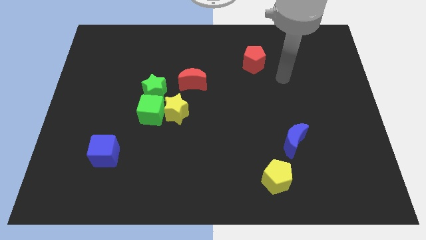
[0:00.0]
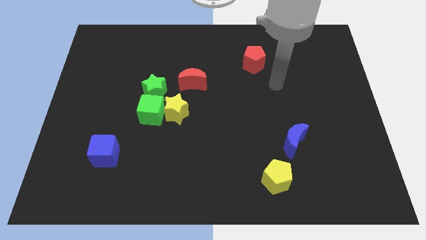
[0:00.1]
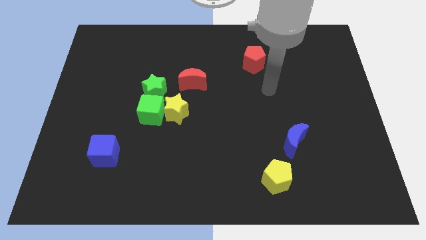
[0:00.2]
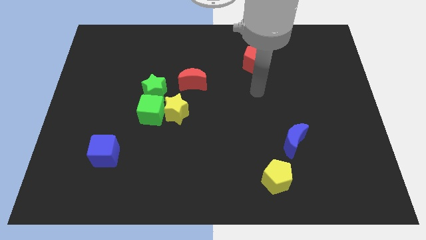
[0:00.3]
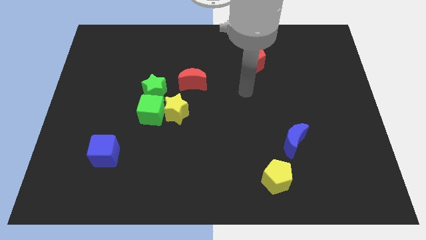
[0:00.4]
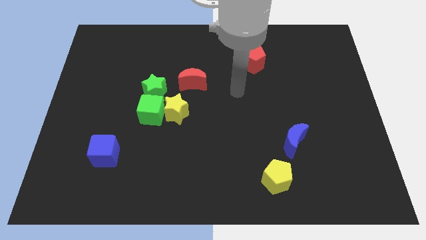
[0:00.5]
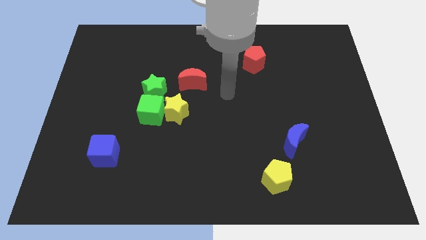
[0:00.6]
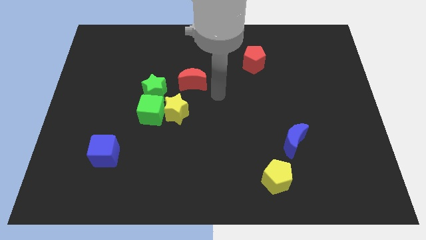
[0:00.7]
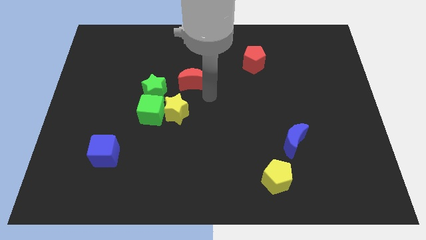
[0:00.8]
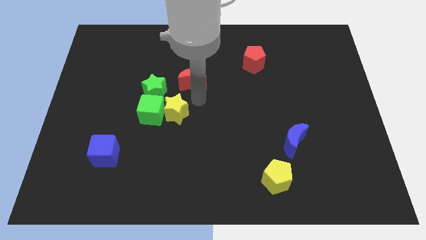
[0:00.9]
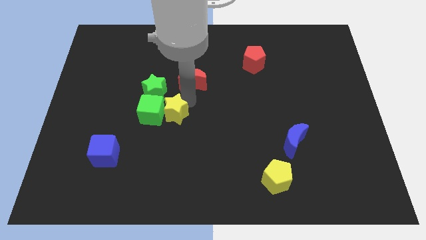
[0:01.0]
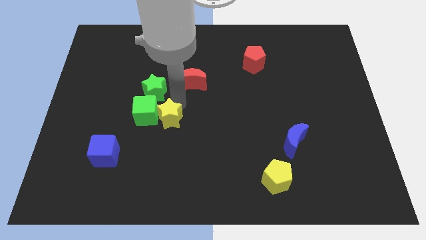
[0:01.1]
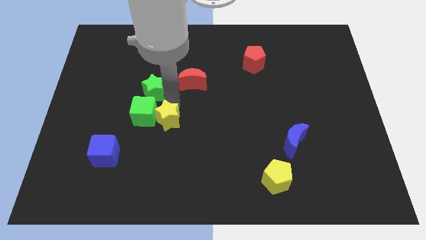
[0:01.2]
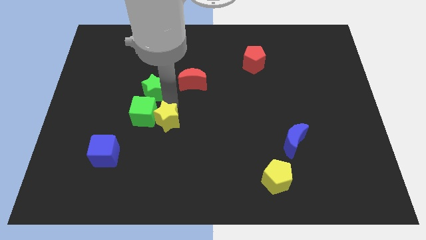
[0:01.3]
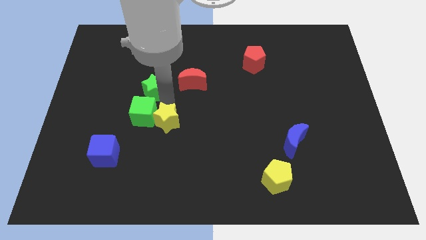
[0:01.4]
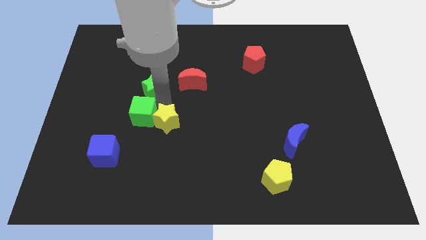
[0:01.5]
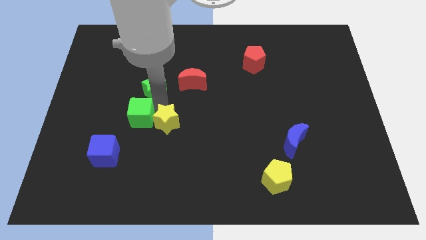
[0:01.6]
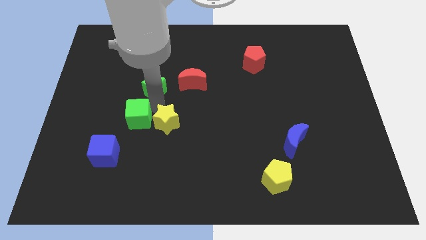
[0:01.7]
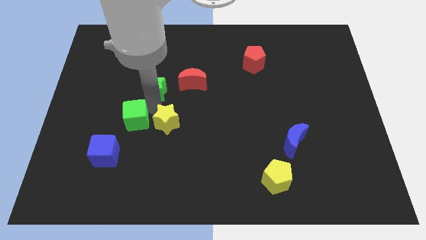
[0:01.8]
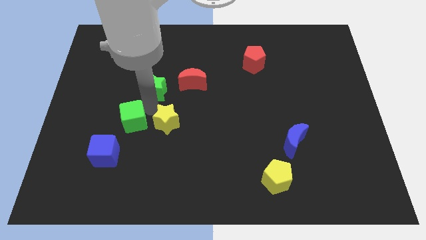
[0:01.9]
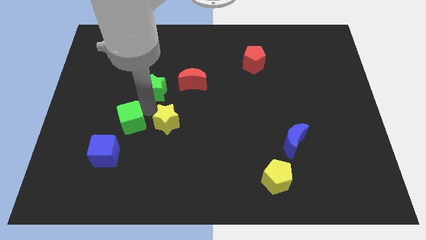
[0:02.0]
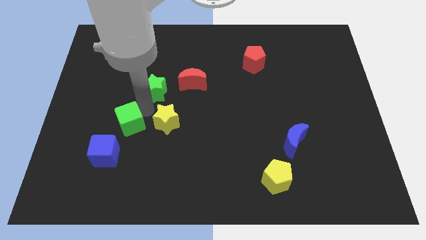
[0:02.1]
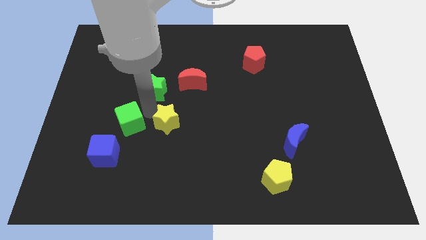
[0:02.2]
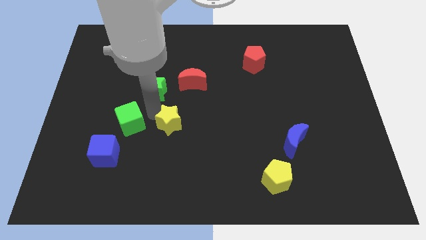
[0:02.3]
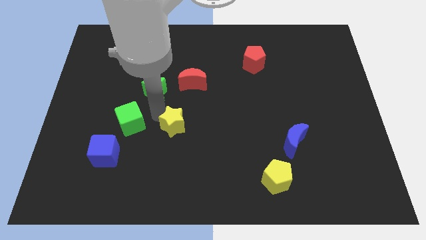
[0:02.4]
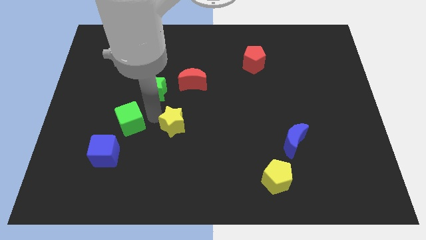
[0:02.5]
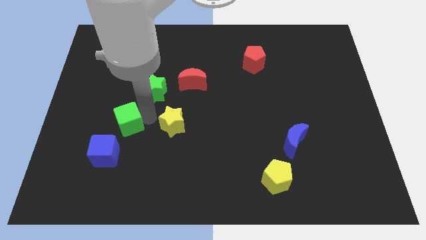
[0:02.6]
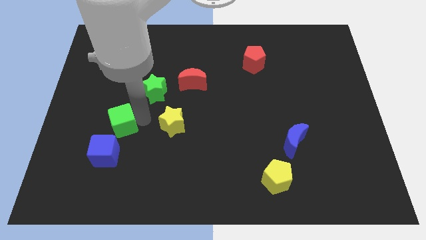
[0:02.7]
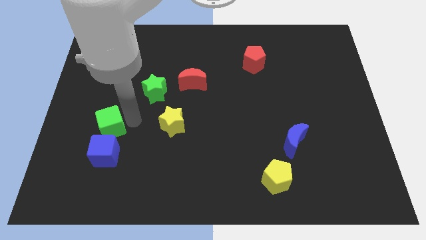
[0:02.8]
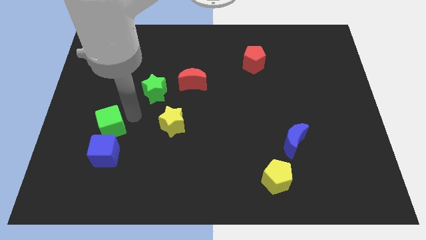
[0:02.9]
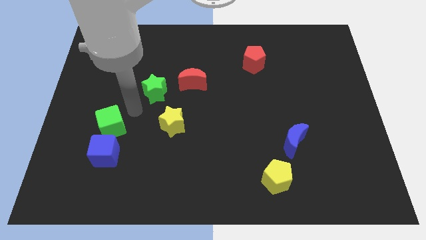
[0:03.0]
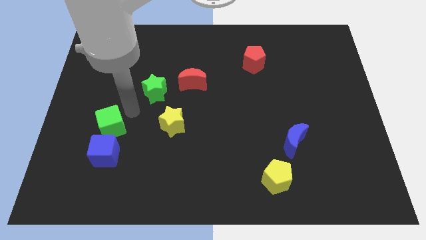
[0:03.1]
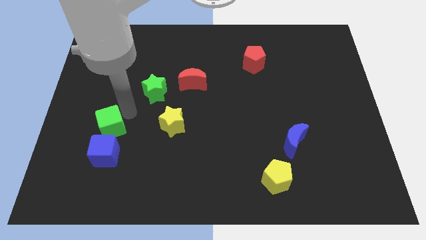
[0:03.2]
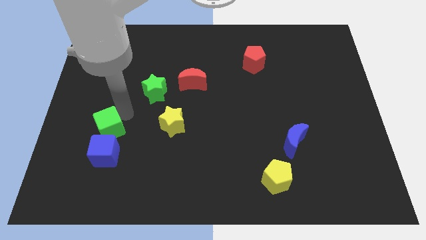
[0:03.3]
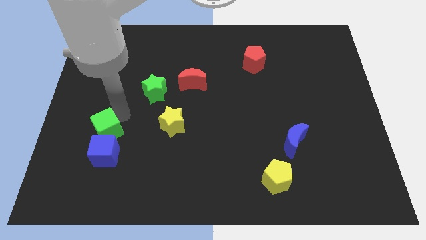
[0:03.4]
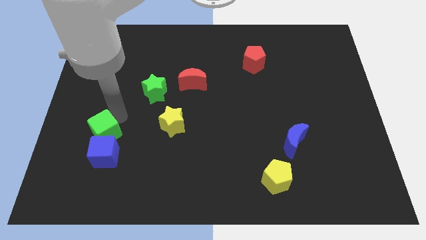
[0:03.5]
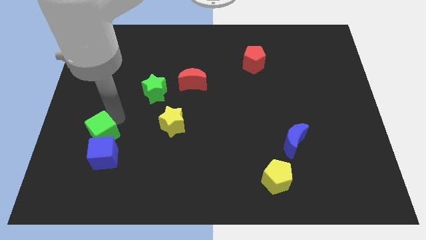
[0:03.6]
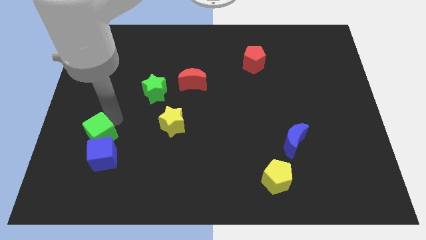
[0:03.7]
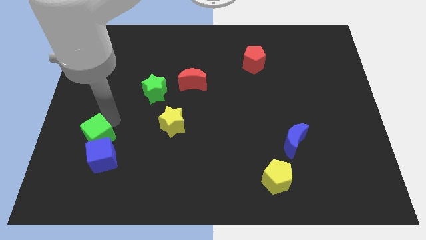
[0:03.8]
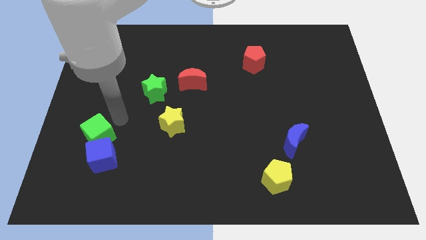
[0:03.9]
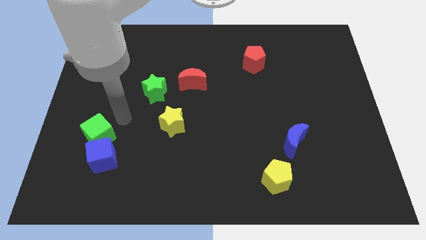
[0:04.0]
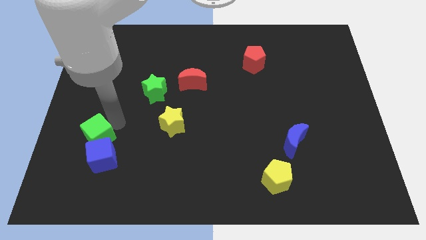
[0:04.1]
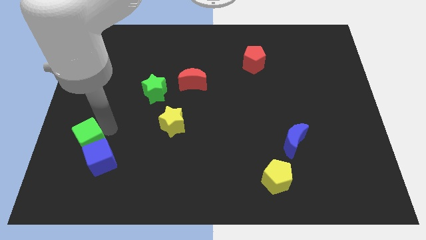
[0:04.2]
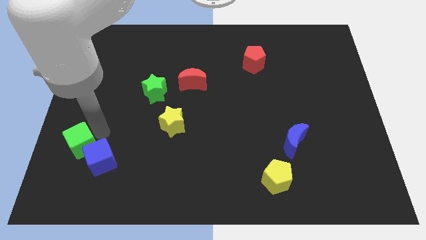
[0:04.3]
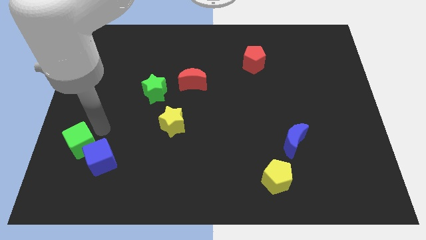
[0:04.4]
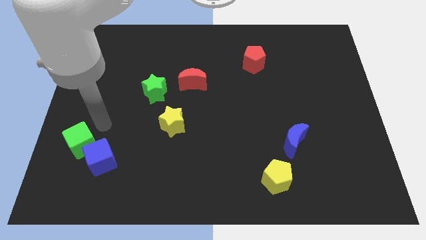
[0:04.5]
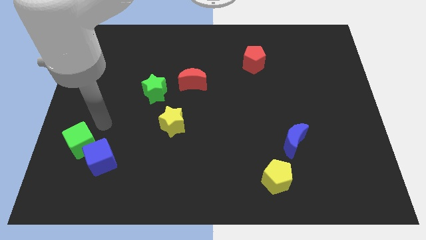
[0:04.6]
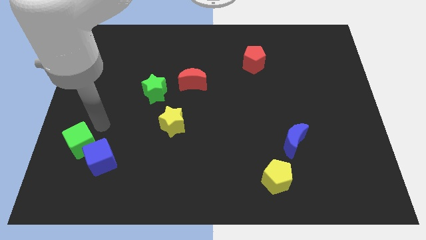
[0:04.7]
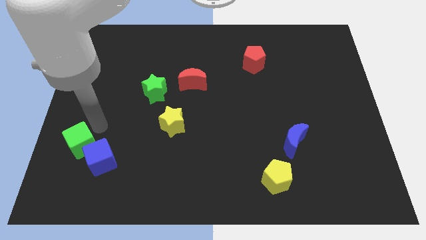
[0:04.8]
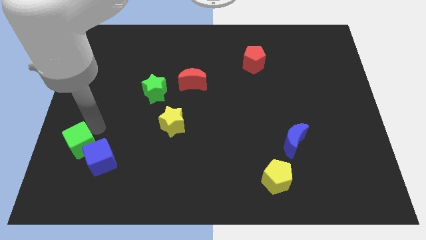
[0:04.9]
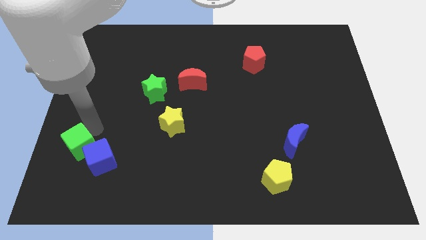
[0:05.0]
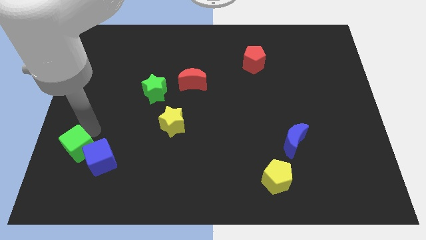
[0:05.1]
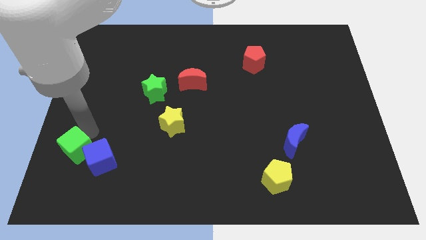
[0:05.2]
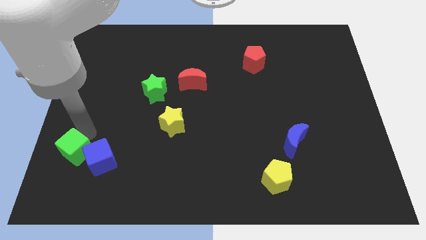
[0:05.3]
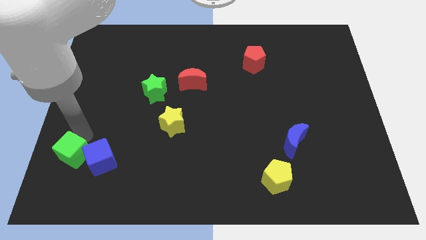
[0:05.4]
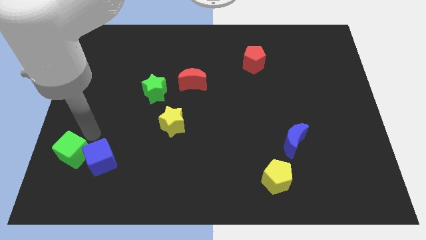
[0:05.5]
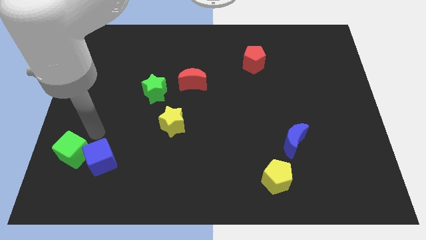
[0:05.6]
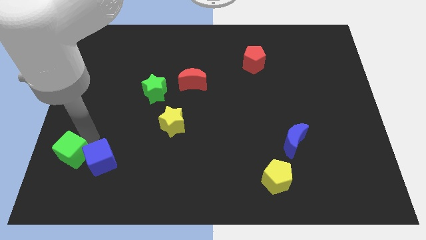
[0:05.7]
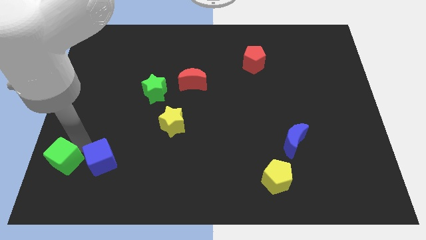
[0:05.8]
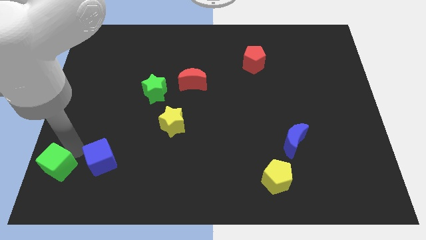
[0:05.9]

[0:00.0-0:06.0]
put the green cube to the bottom left of the board
